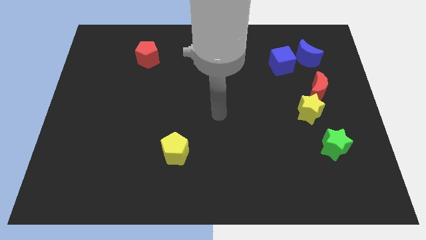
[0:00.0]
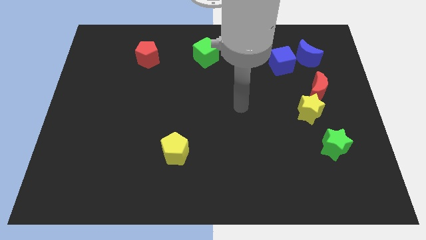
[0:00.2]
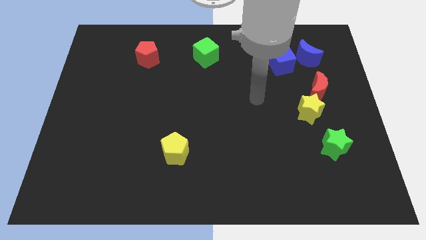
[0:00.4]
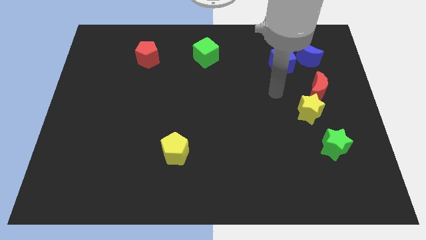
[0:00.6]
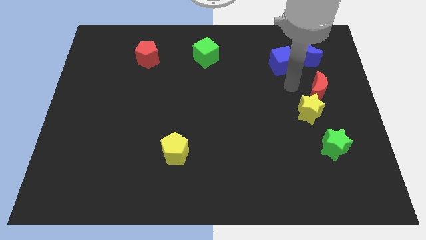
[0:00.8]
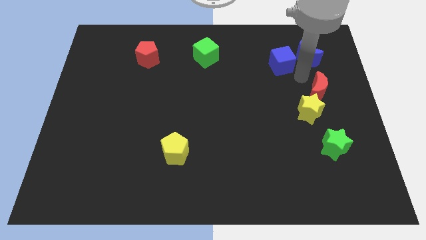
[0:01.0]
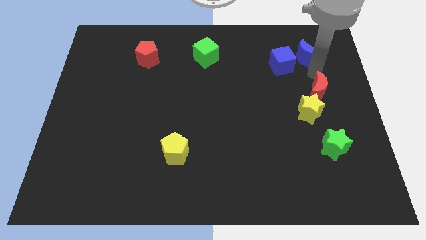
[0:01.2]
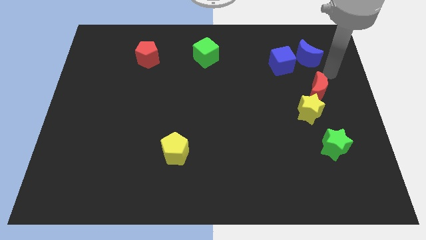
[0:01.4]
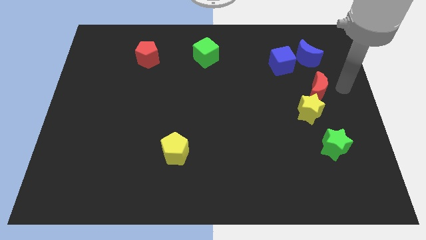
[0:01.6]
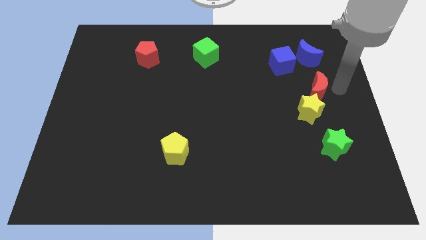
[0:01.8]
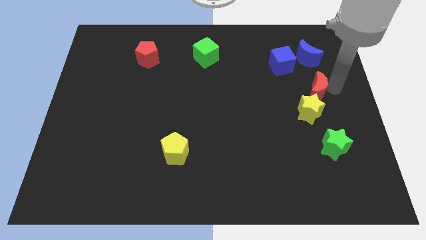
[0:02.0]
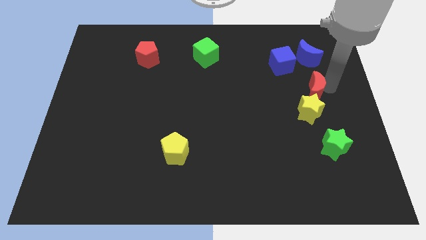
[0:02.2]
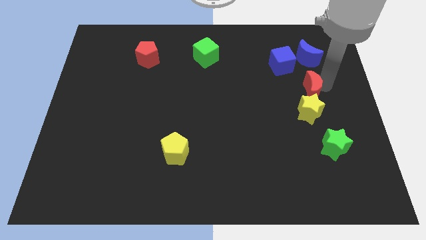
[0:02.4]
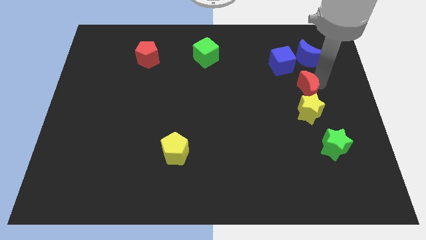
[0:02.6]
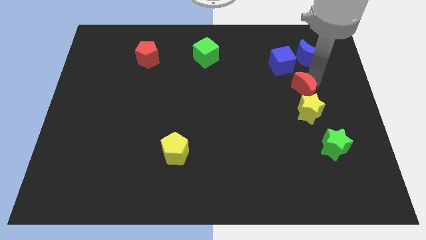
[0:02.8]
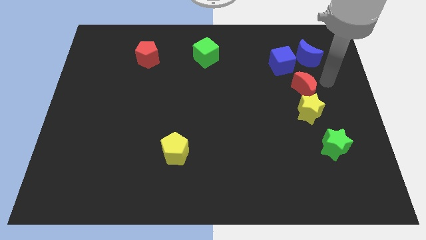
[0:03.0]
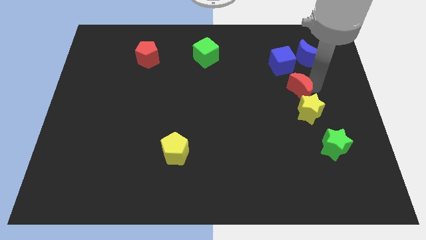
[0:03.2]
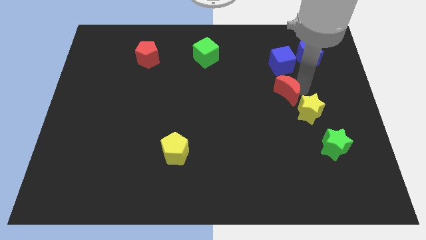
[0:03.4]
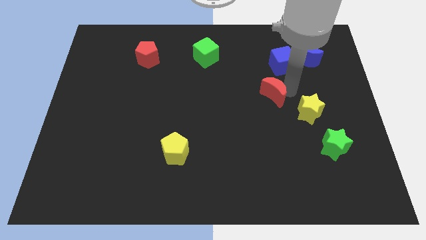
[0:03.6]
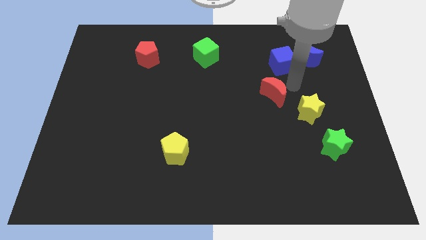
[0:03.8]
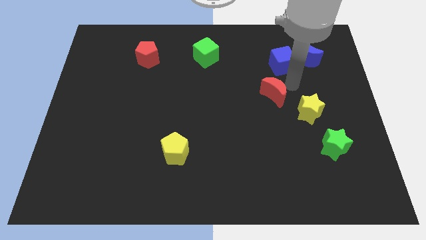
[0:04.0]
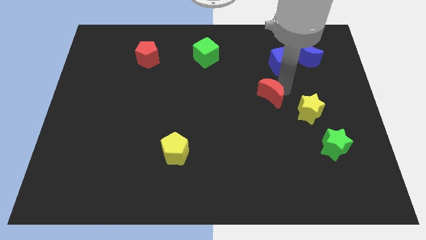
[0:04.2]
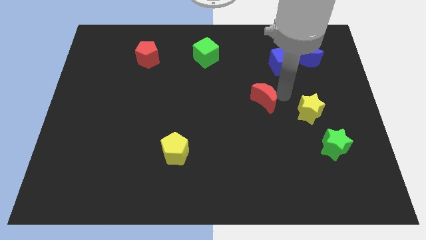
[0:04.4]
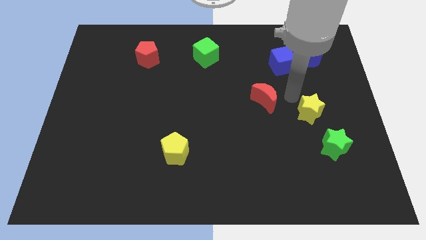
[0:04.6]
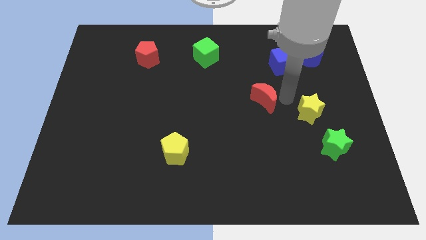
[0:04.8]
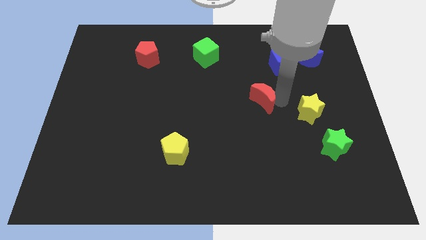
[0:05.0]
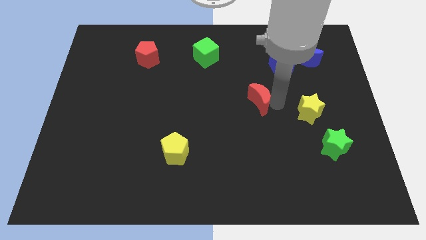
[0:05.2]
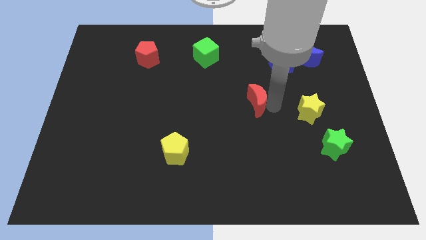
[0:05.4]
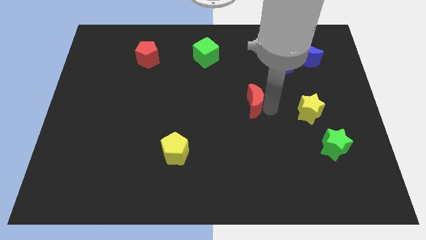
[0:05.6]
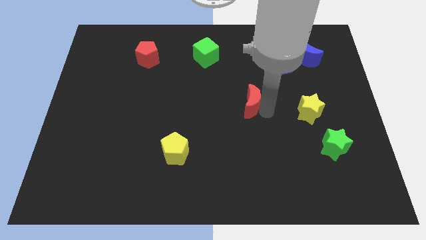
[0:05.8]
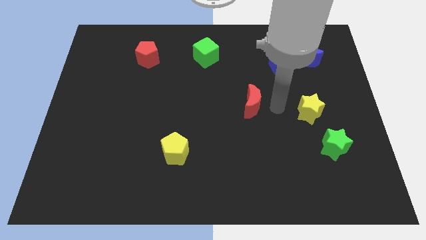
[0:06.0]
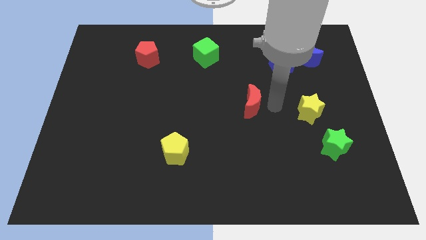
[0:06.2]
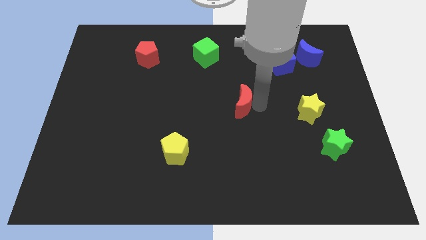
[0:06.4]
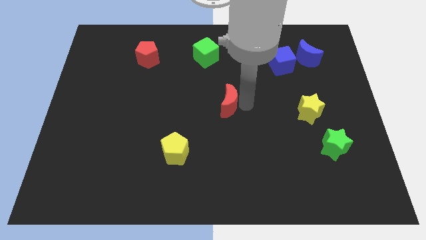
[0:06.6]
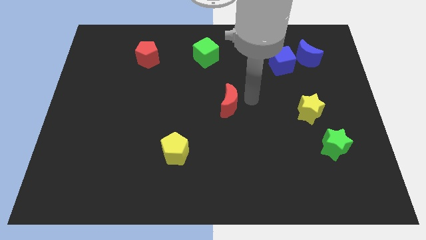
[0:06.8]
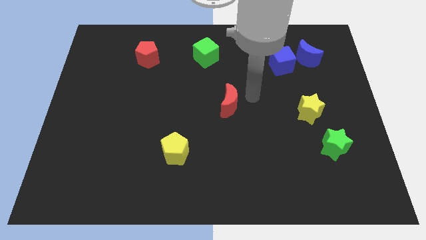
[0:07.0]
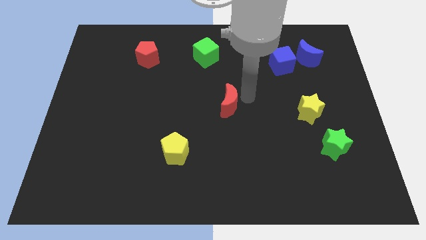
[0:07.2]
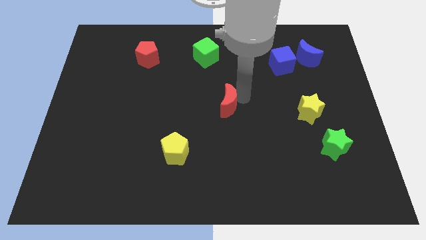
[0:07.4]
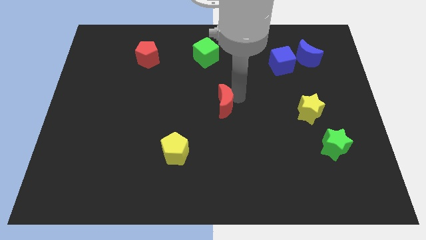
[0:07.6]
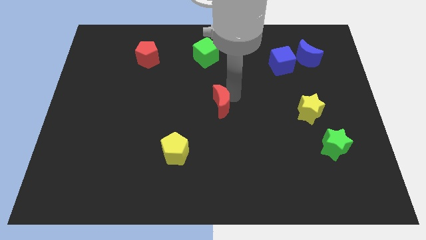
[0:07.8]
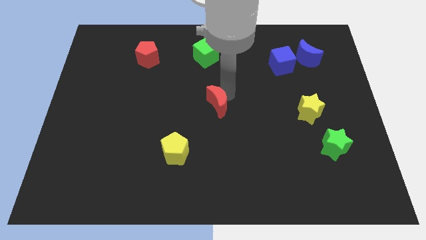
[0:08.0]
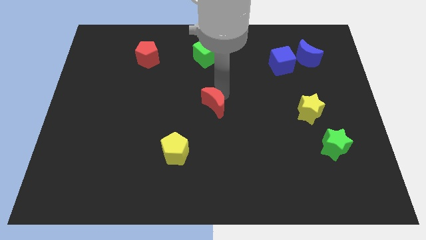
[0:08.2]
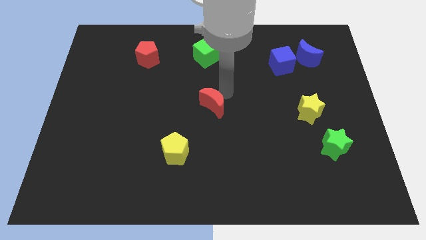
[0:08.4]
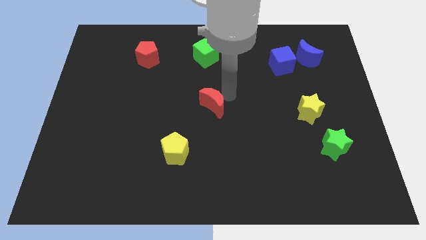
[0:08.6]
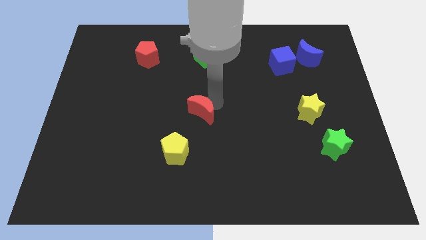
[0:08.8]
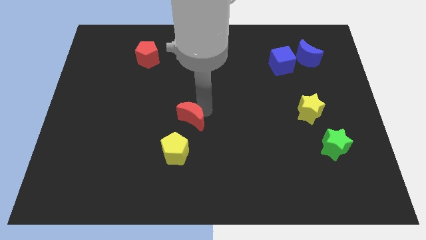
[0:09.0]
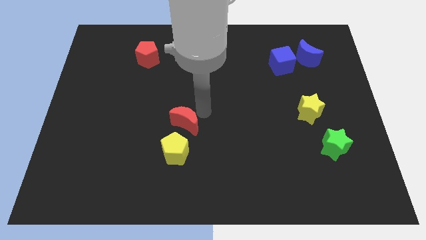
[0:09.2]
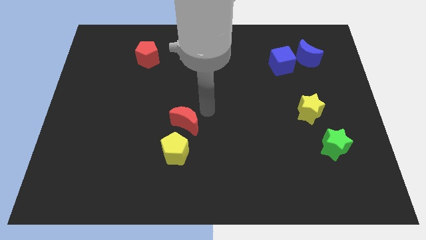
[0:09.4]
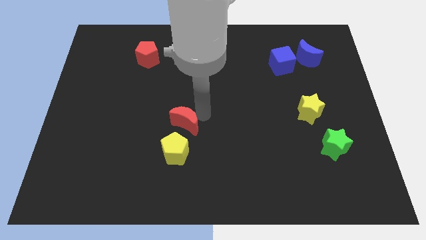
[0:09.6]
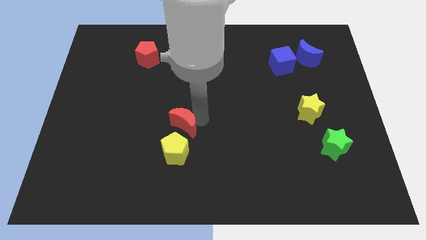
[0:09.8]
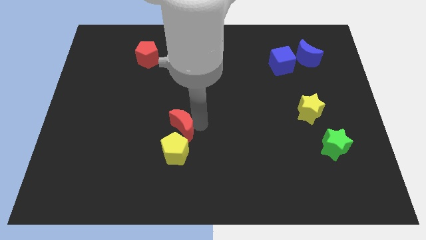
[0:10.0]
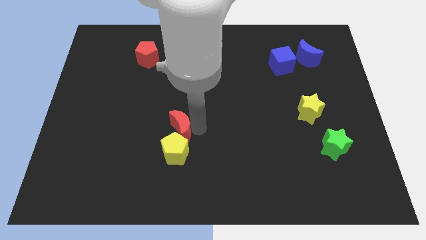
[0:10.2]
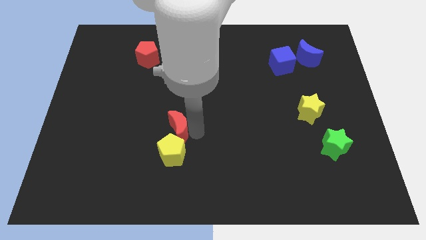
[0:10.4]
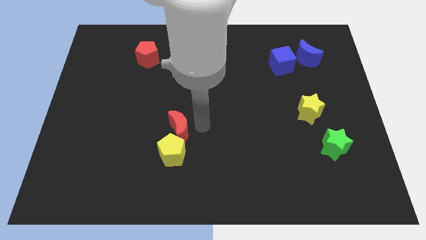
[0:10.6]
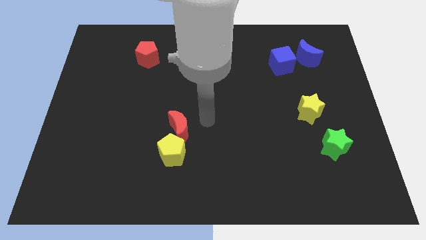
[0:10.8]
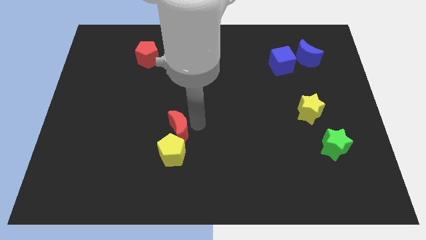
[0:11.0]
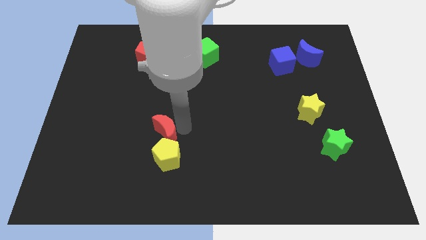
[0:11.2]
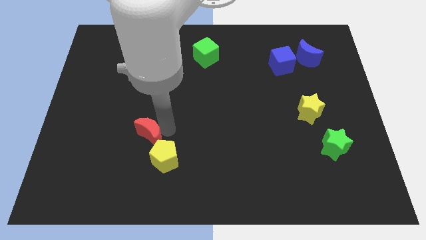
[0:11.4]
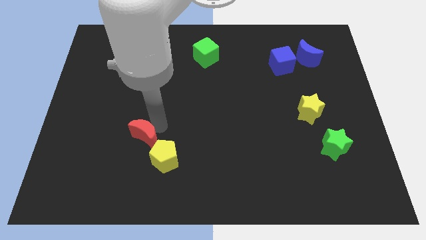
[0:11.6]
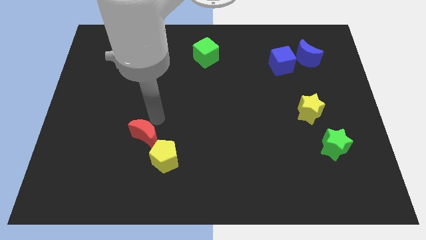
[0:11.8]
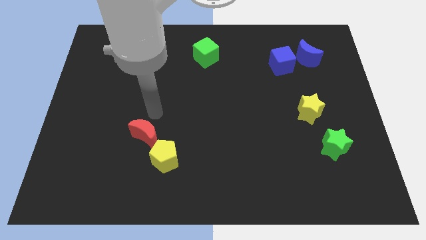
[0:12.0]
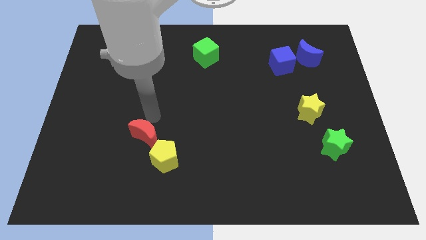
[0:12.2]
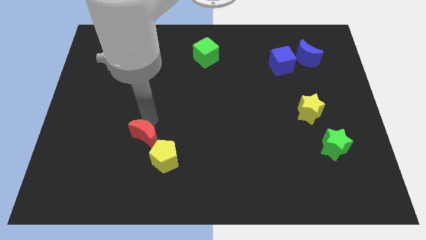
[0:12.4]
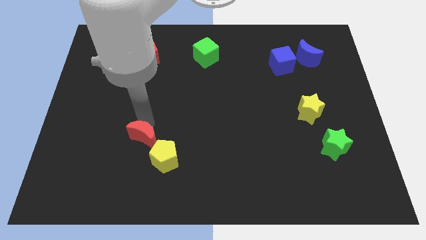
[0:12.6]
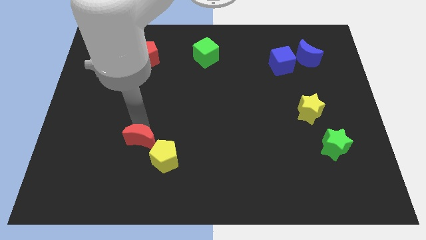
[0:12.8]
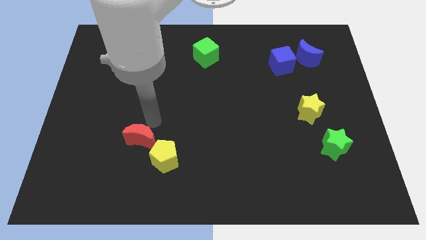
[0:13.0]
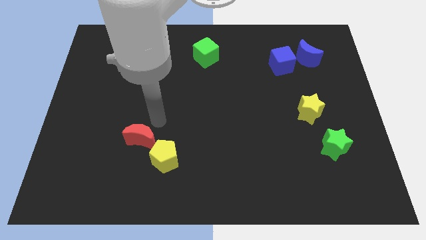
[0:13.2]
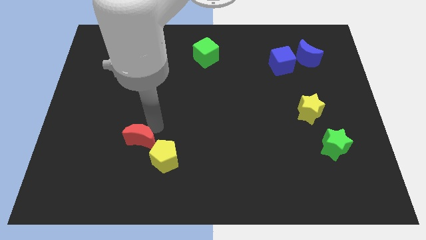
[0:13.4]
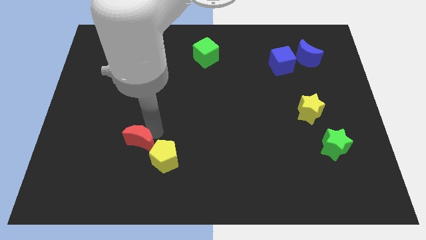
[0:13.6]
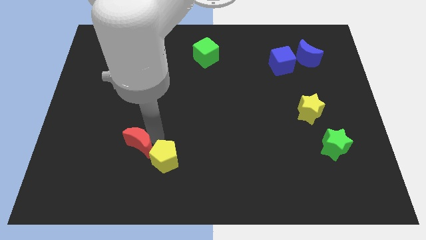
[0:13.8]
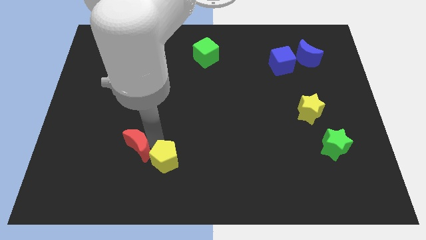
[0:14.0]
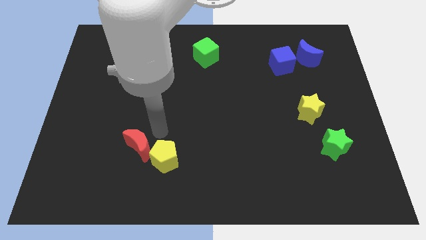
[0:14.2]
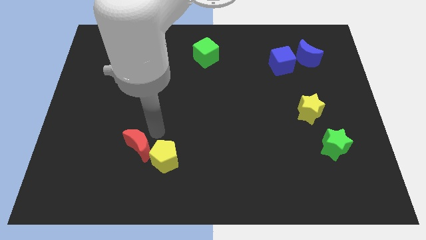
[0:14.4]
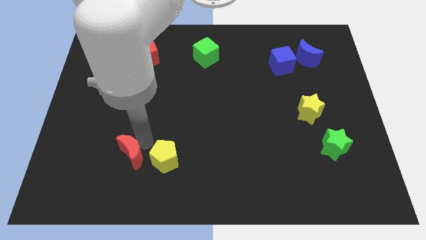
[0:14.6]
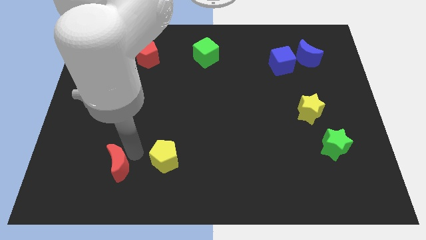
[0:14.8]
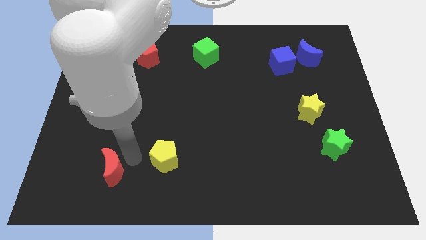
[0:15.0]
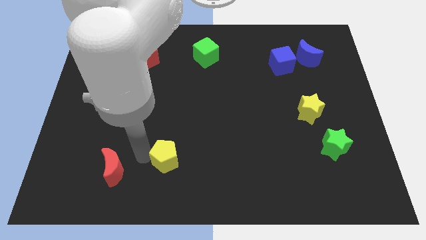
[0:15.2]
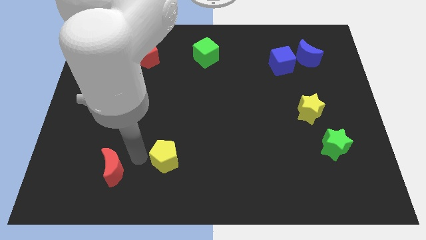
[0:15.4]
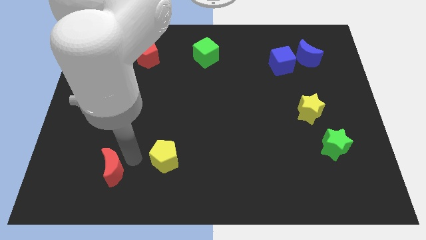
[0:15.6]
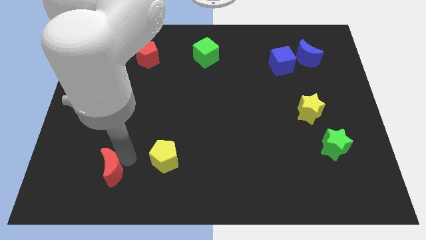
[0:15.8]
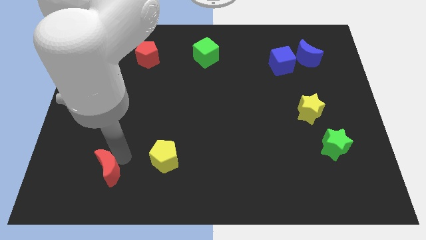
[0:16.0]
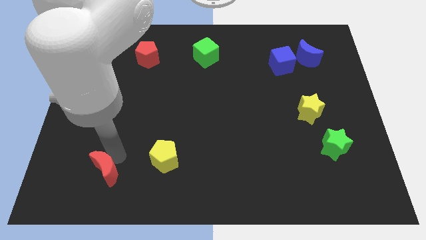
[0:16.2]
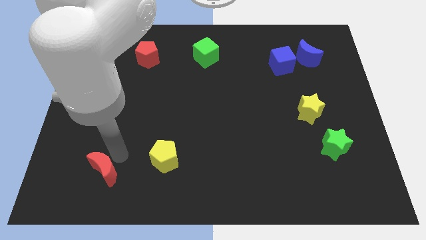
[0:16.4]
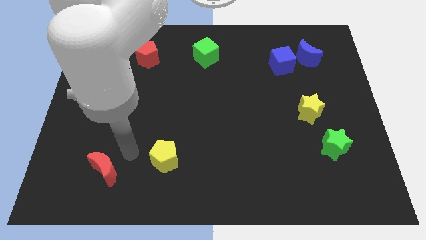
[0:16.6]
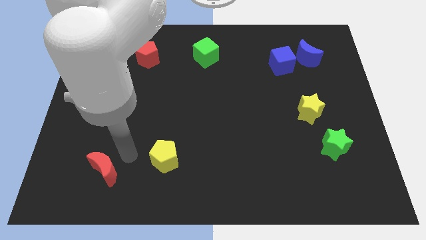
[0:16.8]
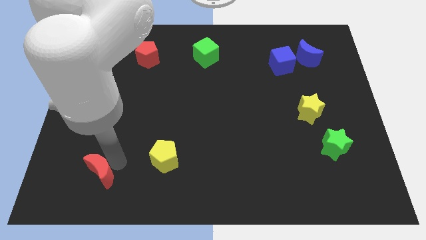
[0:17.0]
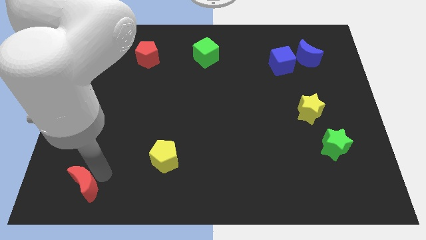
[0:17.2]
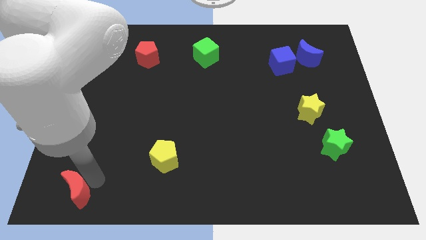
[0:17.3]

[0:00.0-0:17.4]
move the red moon to the bottom left corner
